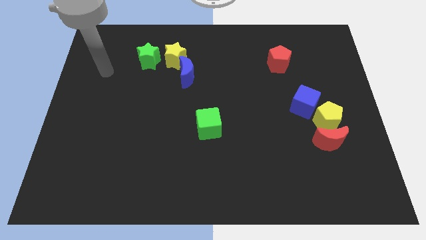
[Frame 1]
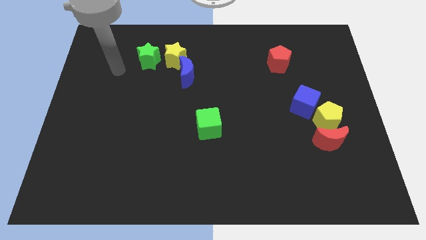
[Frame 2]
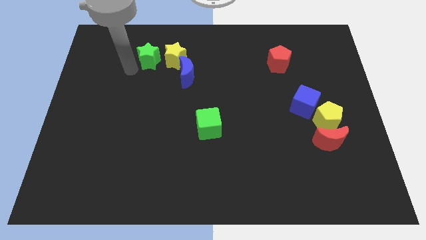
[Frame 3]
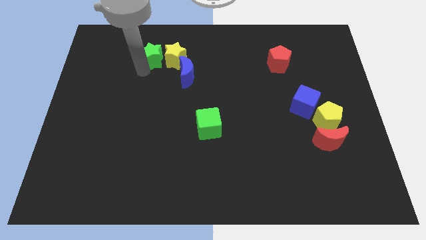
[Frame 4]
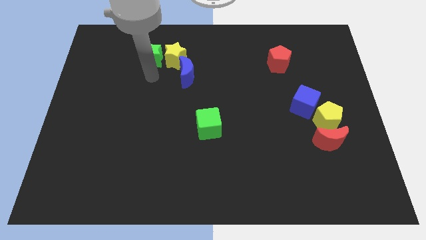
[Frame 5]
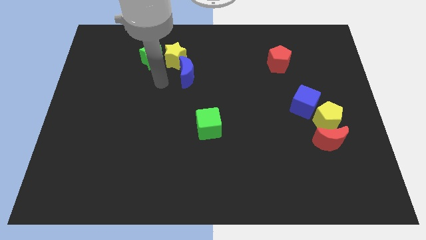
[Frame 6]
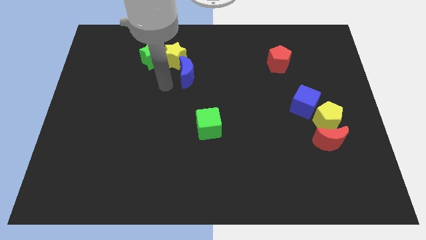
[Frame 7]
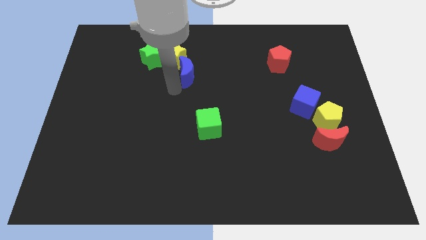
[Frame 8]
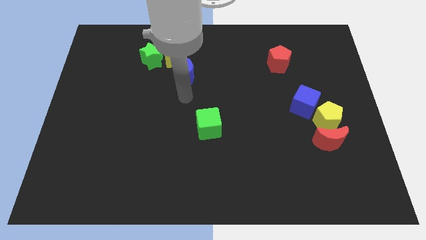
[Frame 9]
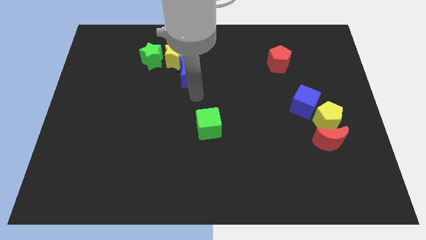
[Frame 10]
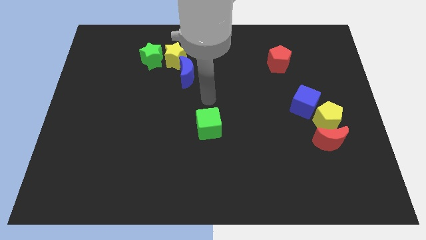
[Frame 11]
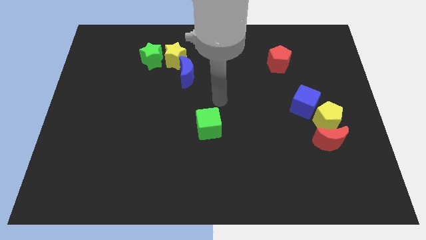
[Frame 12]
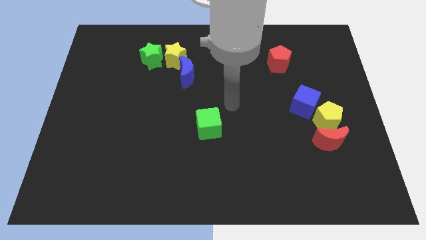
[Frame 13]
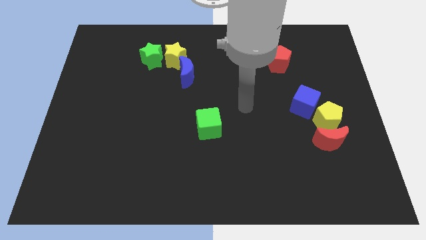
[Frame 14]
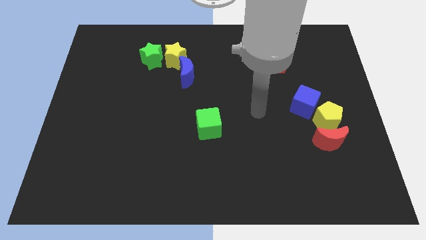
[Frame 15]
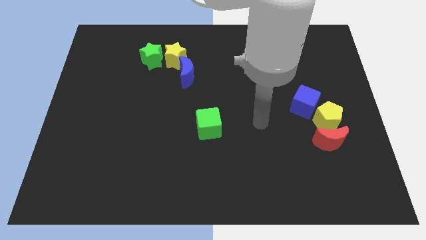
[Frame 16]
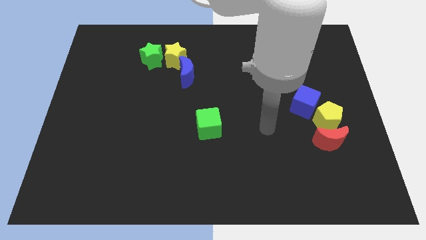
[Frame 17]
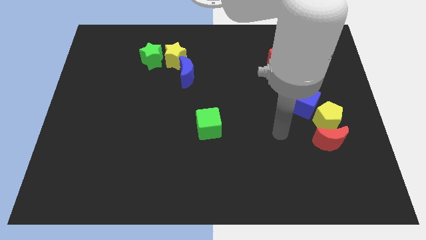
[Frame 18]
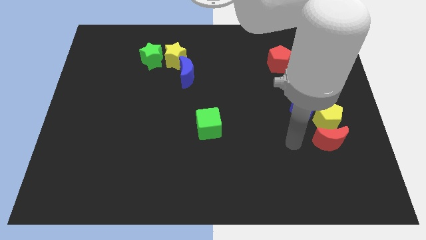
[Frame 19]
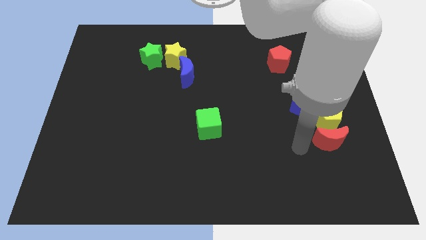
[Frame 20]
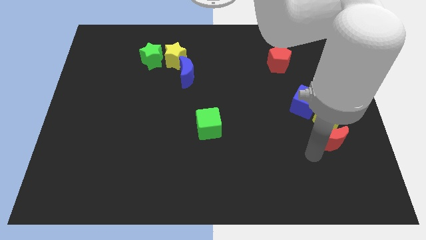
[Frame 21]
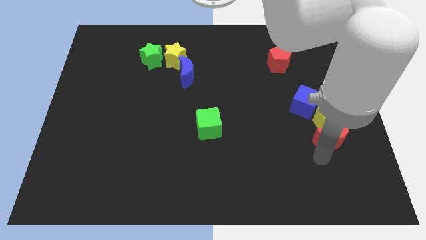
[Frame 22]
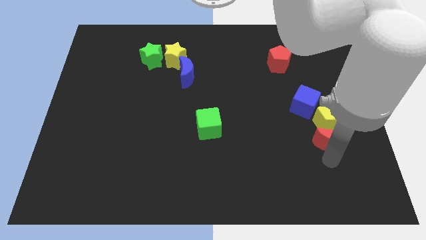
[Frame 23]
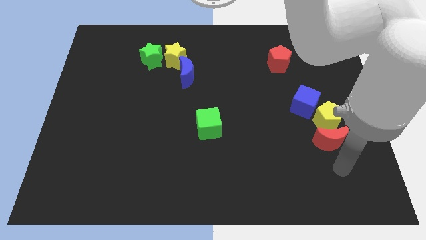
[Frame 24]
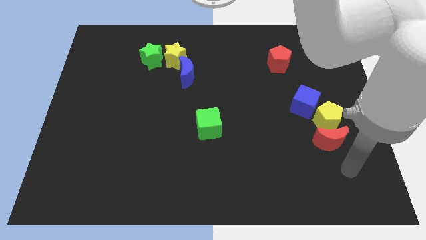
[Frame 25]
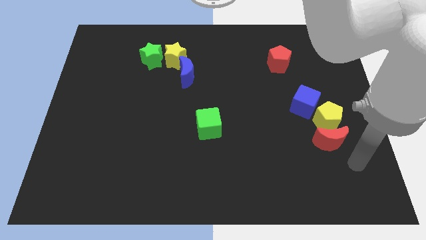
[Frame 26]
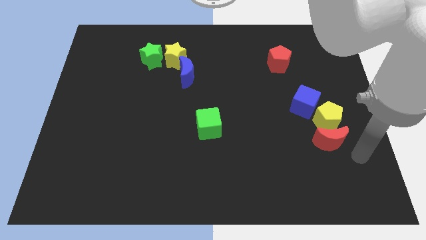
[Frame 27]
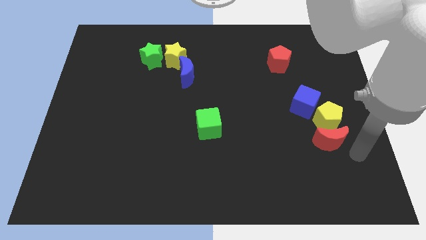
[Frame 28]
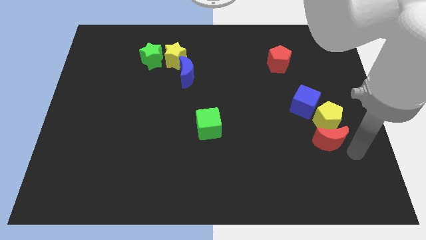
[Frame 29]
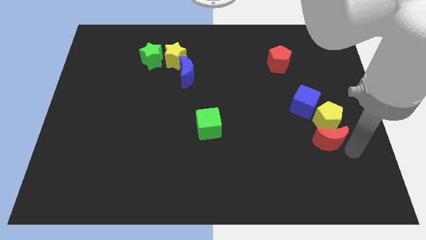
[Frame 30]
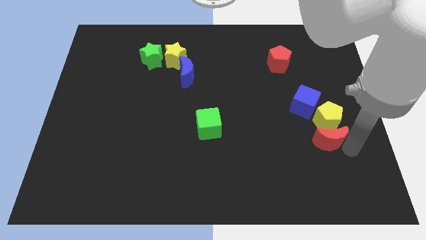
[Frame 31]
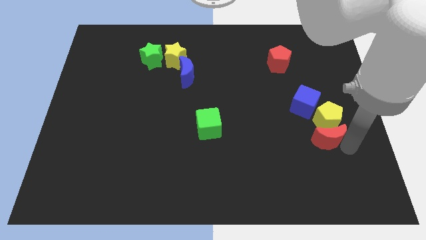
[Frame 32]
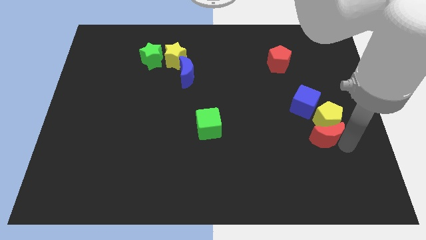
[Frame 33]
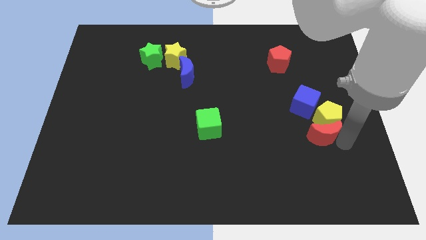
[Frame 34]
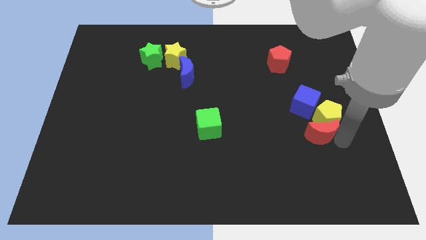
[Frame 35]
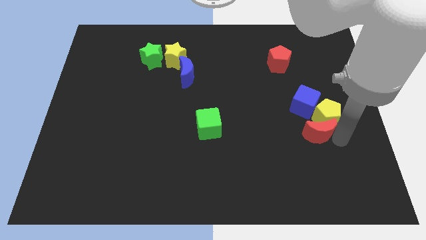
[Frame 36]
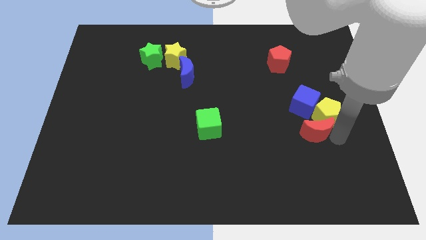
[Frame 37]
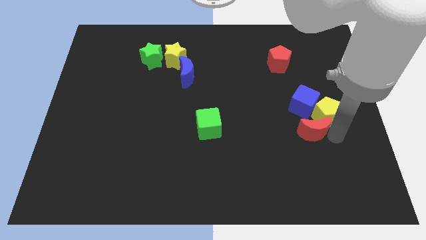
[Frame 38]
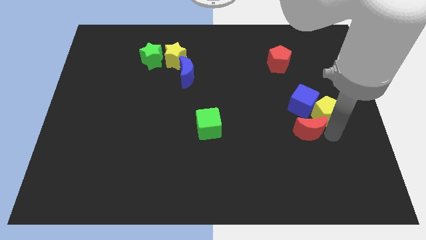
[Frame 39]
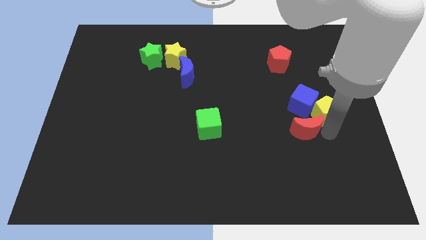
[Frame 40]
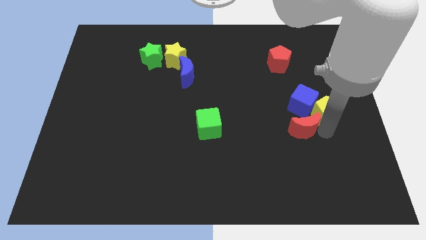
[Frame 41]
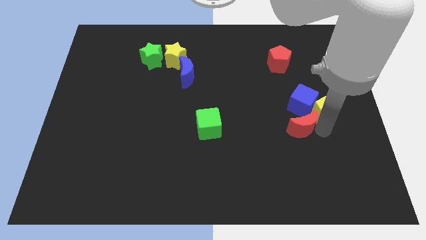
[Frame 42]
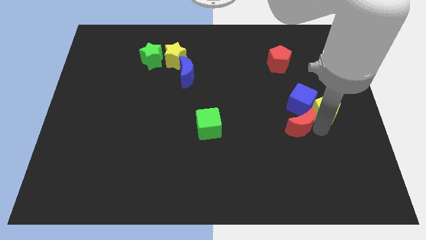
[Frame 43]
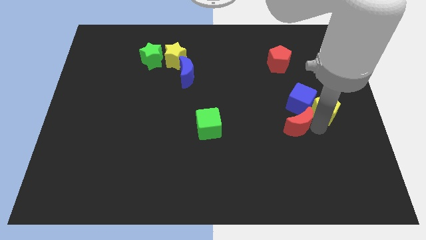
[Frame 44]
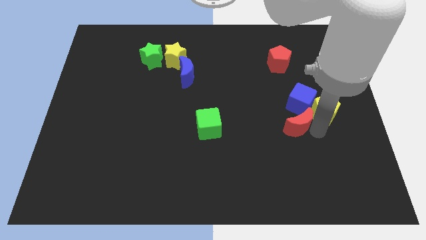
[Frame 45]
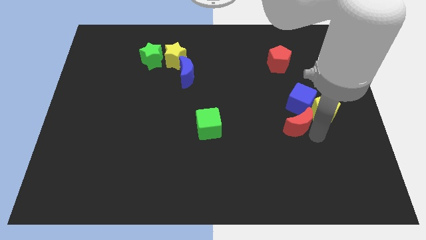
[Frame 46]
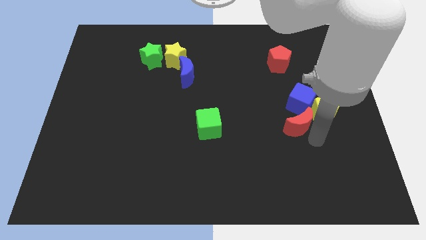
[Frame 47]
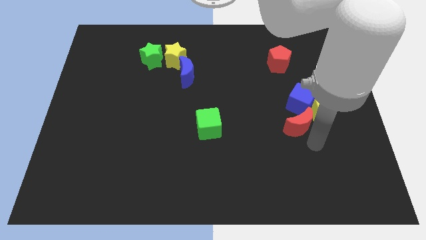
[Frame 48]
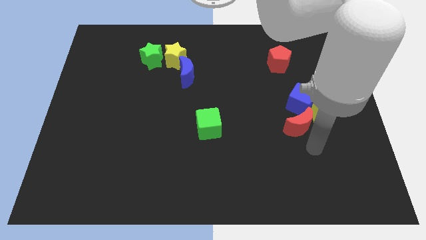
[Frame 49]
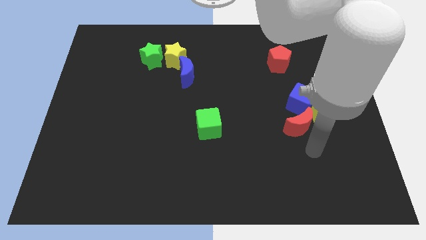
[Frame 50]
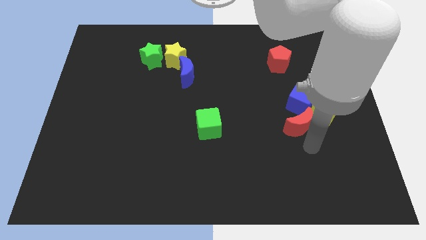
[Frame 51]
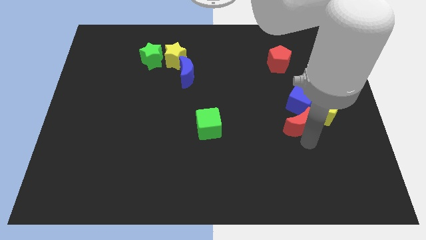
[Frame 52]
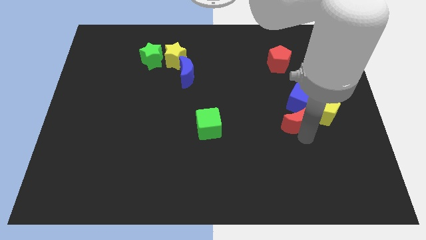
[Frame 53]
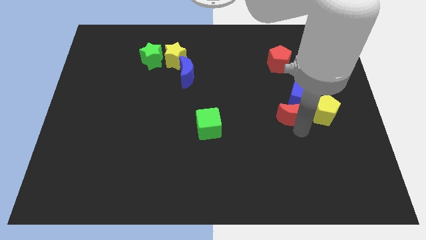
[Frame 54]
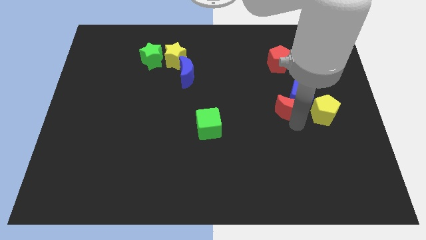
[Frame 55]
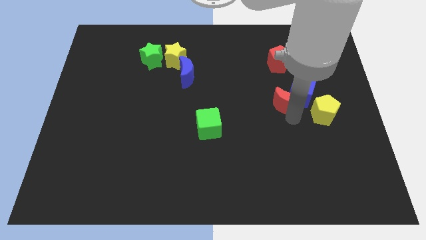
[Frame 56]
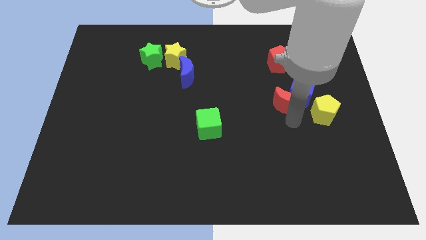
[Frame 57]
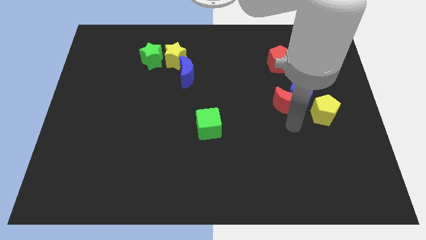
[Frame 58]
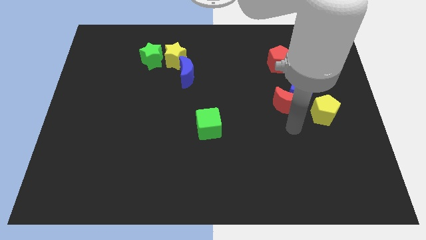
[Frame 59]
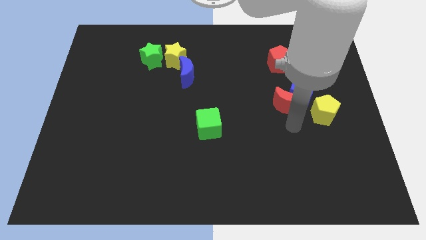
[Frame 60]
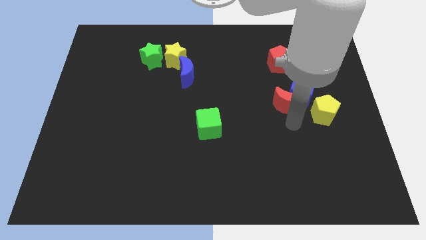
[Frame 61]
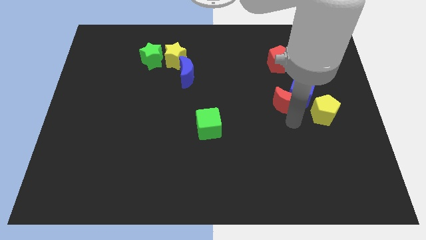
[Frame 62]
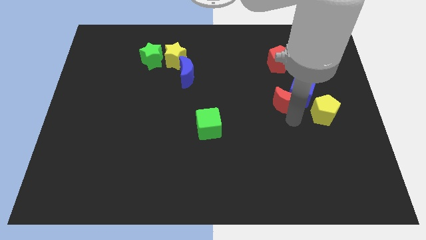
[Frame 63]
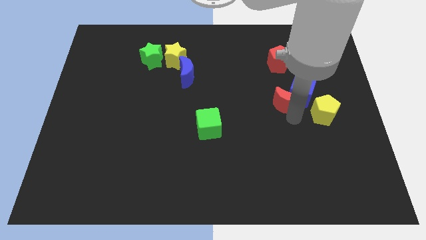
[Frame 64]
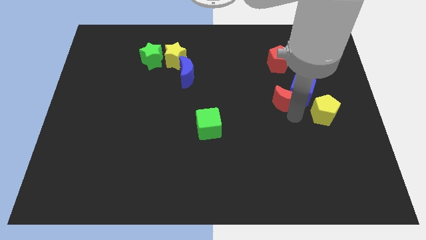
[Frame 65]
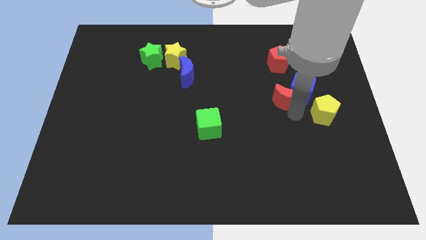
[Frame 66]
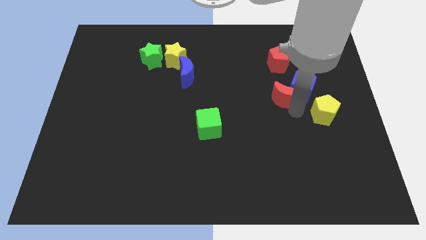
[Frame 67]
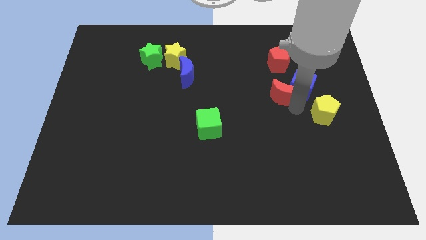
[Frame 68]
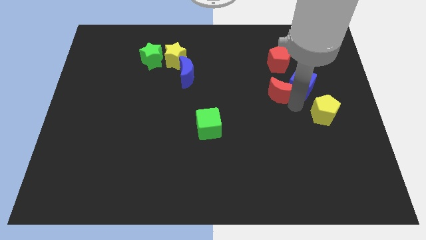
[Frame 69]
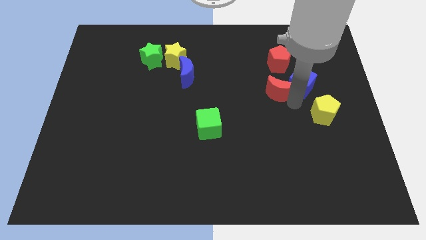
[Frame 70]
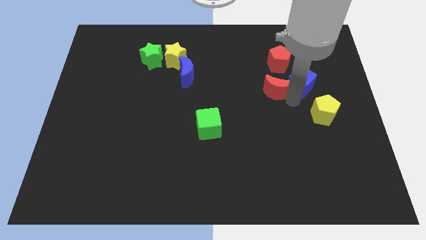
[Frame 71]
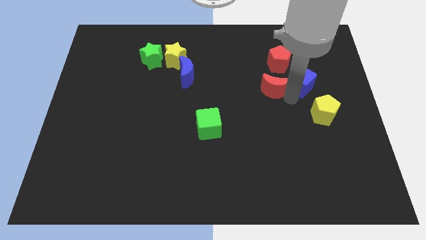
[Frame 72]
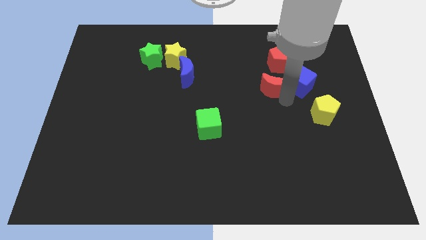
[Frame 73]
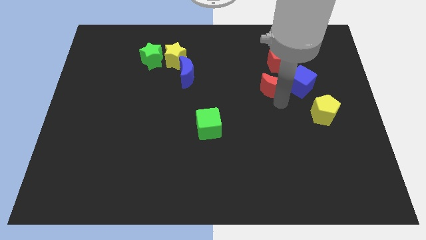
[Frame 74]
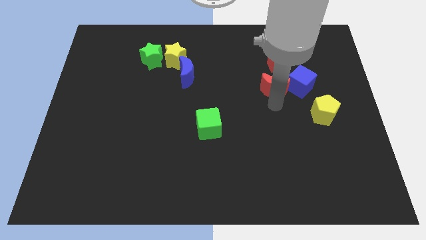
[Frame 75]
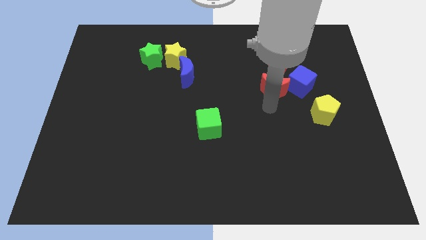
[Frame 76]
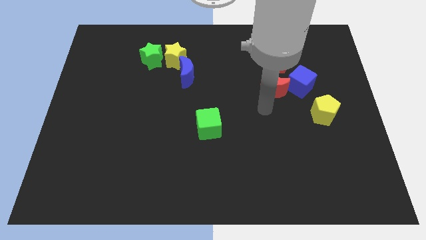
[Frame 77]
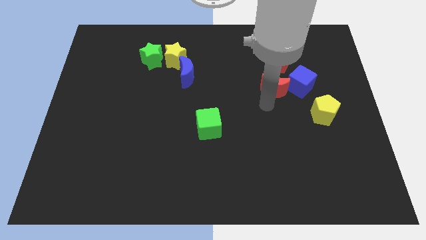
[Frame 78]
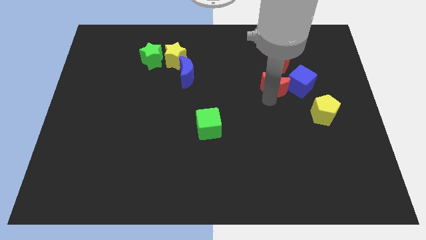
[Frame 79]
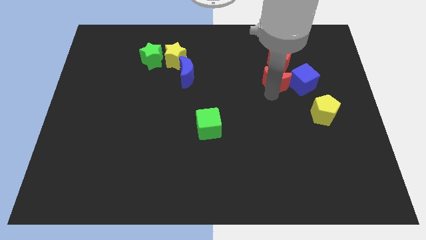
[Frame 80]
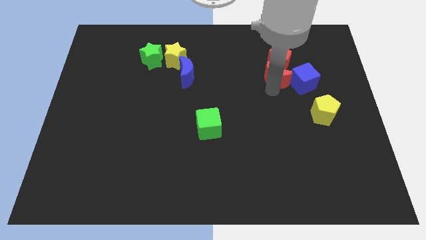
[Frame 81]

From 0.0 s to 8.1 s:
move the red moon towards the red pentagon

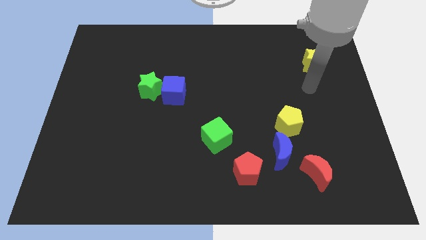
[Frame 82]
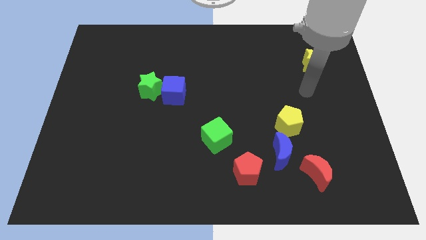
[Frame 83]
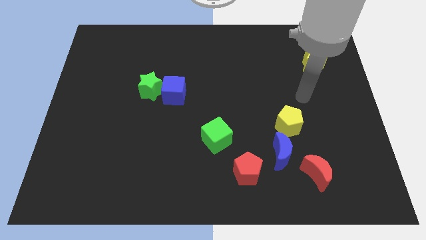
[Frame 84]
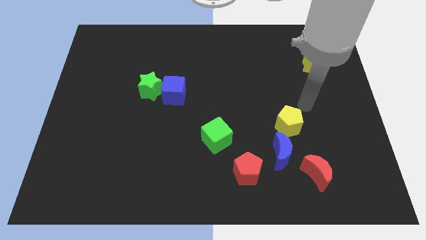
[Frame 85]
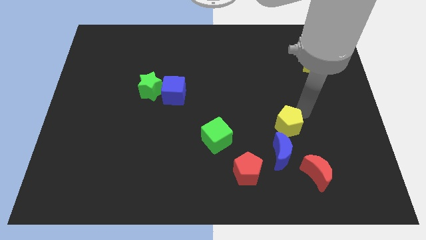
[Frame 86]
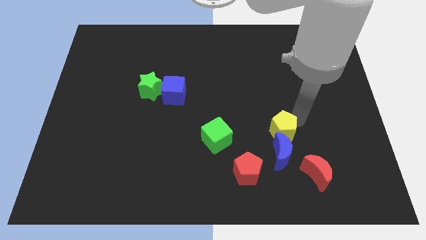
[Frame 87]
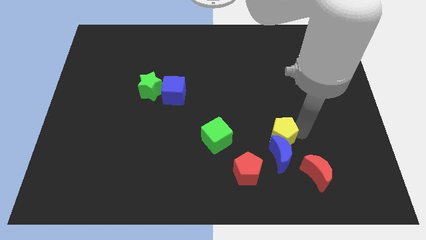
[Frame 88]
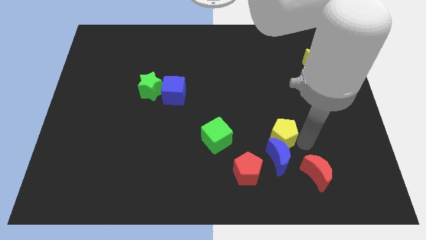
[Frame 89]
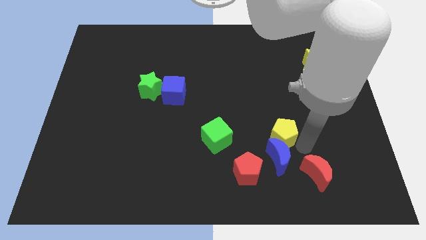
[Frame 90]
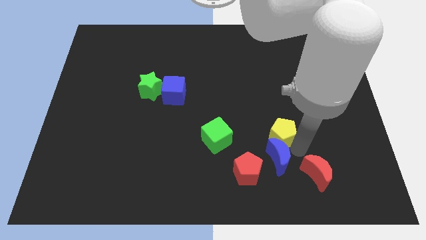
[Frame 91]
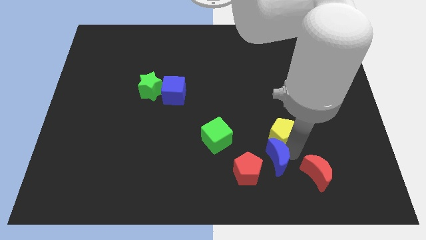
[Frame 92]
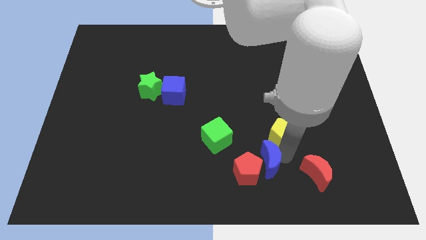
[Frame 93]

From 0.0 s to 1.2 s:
slide the blue moon close to the red pentagon
